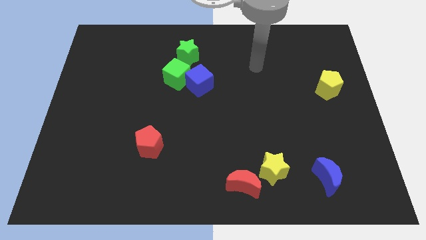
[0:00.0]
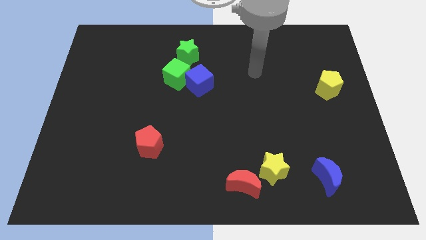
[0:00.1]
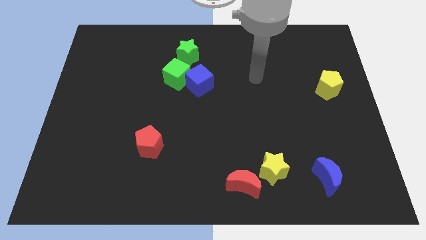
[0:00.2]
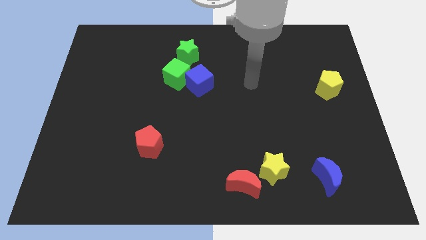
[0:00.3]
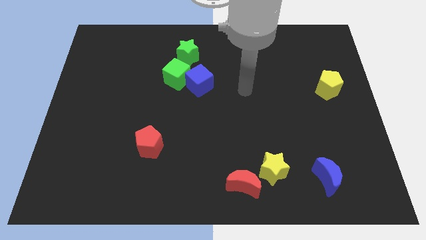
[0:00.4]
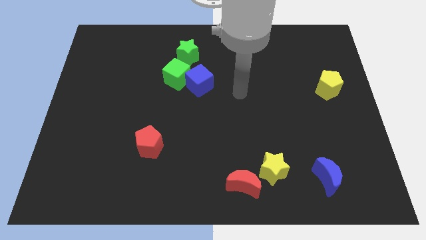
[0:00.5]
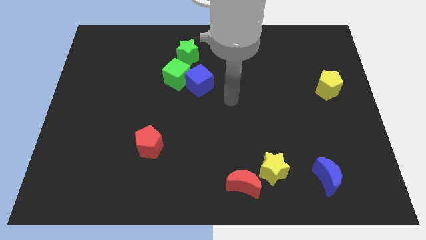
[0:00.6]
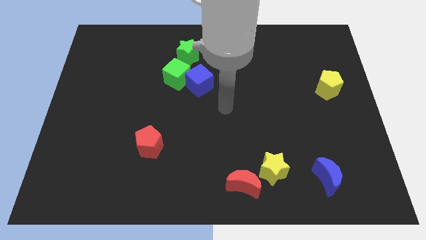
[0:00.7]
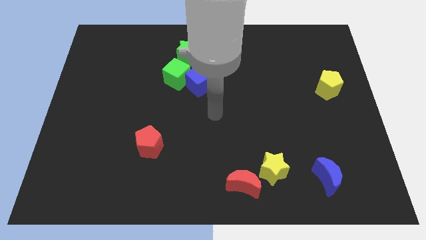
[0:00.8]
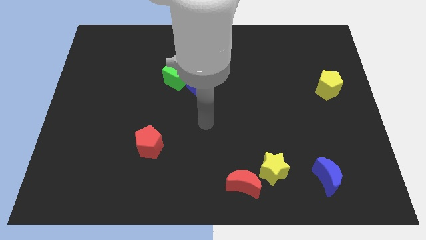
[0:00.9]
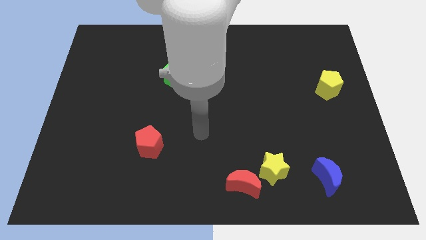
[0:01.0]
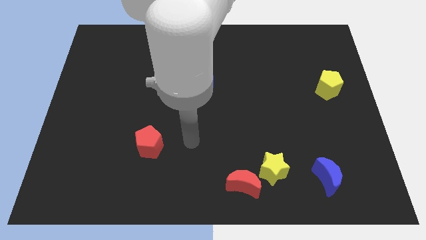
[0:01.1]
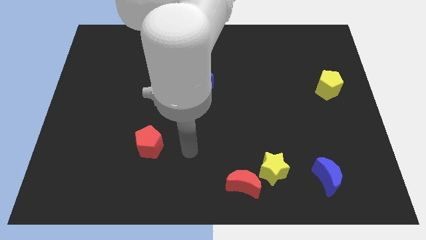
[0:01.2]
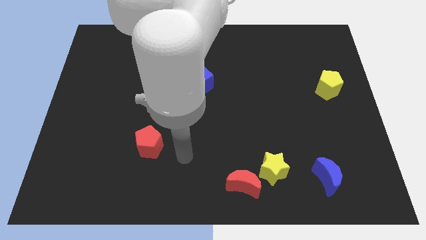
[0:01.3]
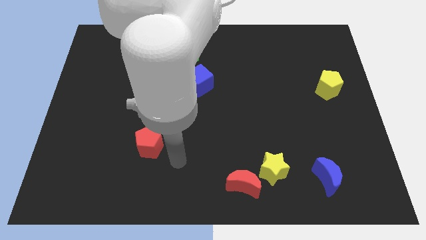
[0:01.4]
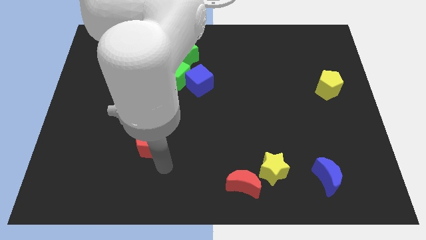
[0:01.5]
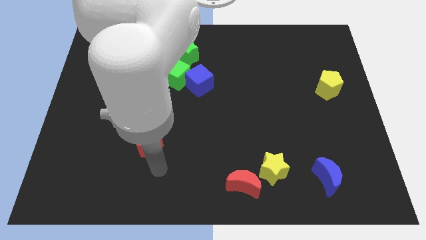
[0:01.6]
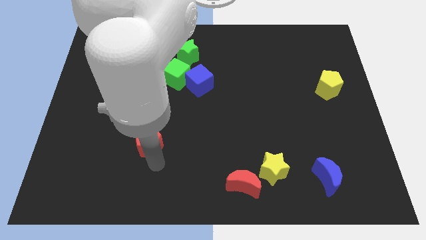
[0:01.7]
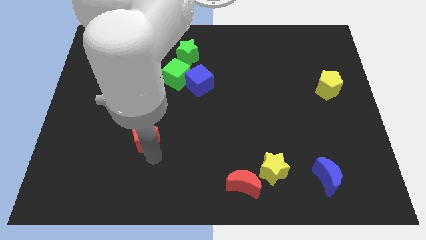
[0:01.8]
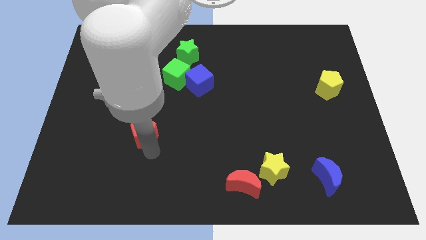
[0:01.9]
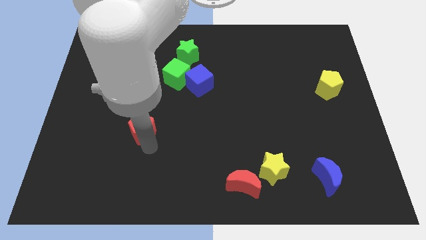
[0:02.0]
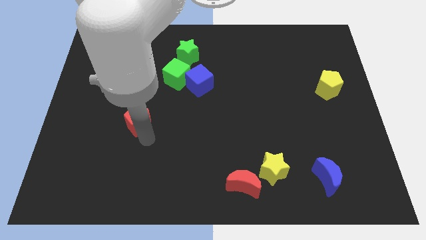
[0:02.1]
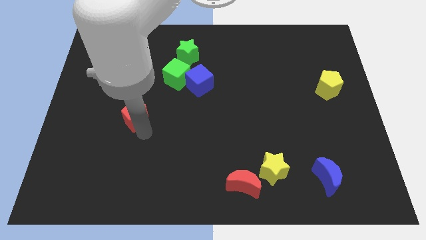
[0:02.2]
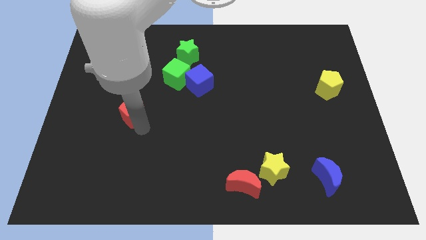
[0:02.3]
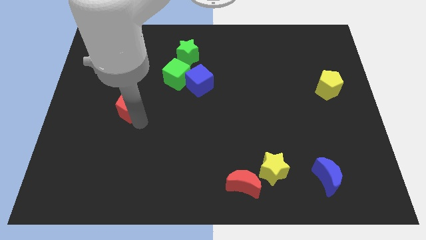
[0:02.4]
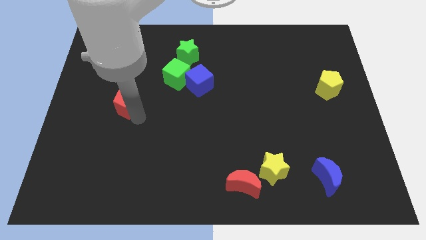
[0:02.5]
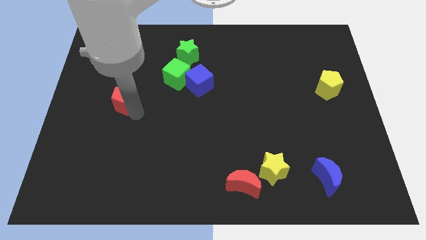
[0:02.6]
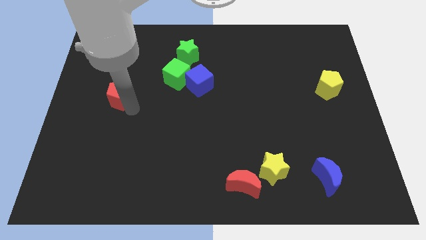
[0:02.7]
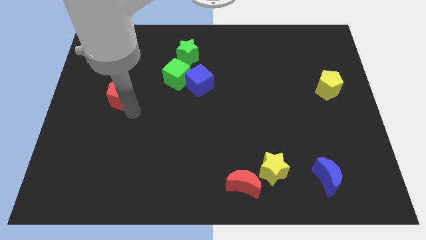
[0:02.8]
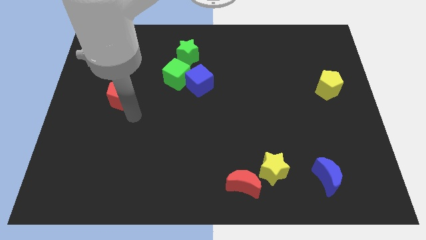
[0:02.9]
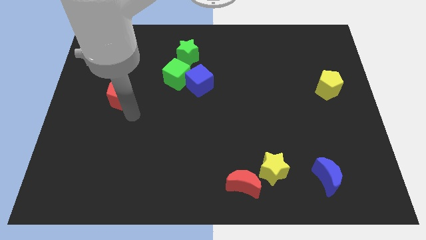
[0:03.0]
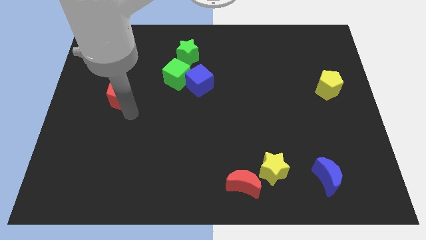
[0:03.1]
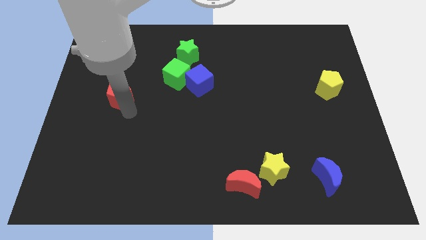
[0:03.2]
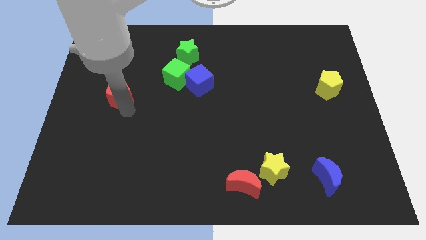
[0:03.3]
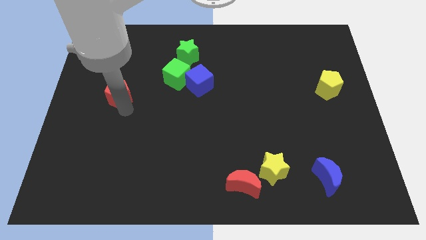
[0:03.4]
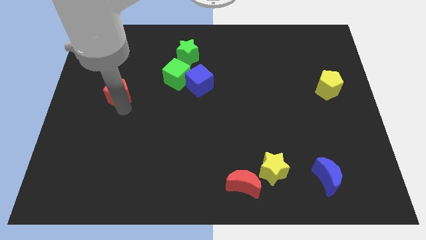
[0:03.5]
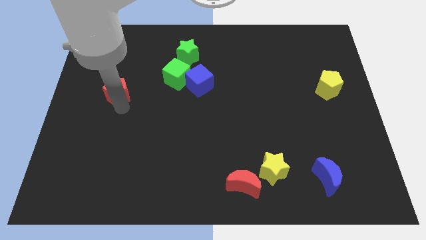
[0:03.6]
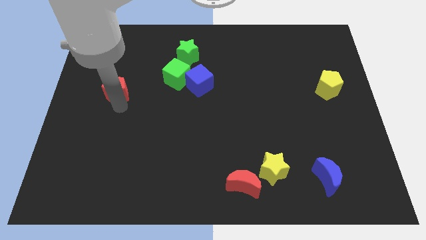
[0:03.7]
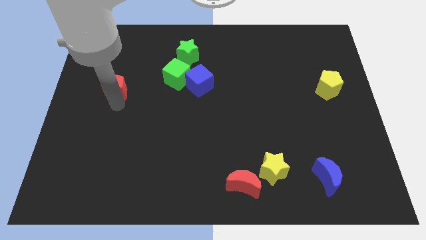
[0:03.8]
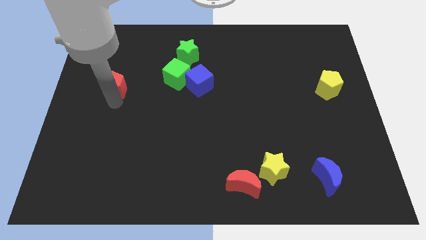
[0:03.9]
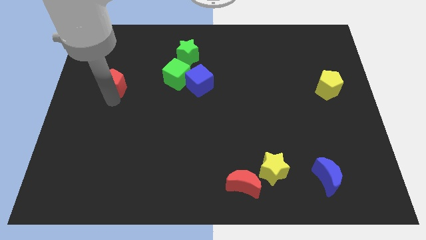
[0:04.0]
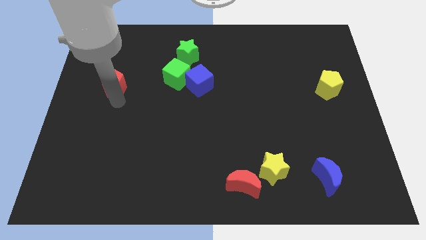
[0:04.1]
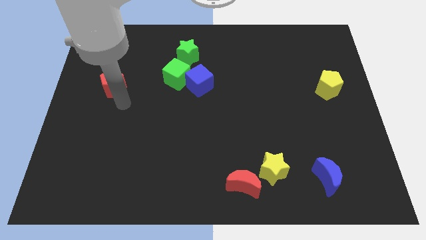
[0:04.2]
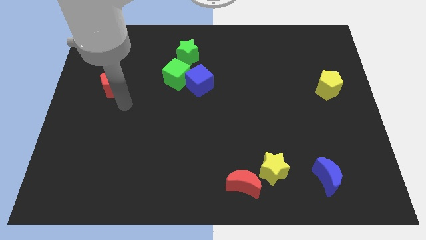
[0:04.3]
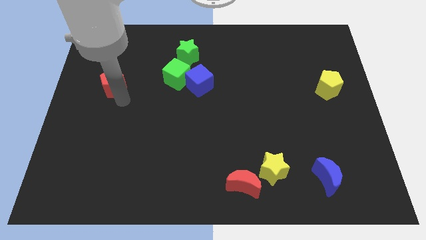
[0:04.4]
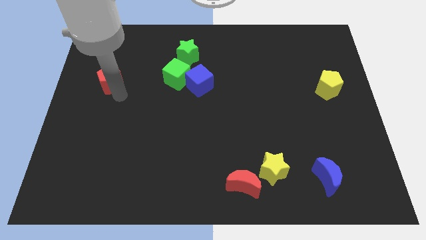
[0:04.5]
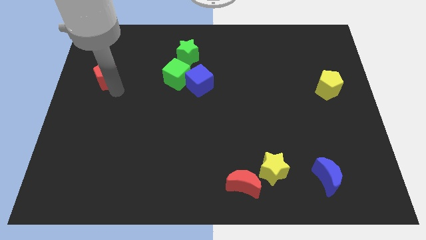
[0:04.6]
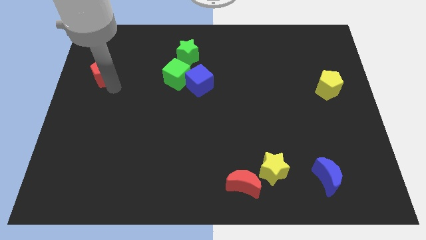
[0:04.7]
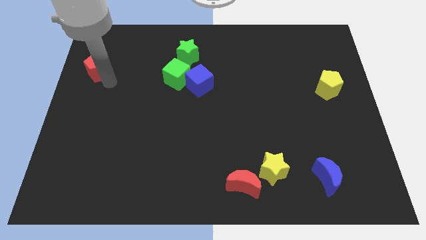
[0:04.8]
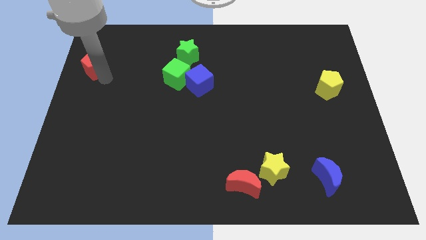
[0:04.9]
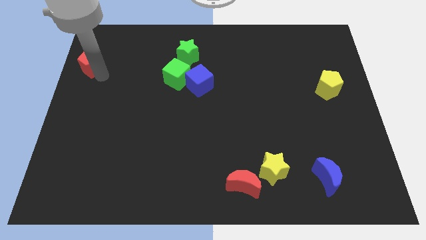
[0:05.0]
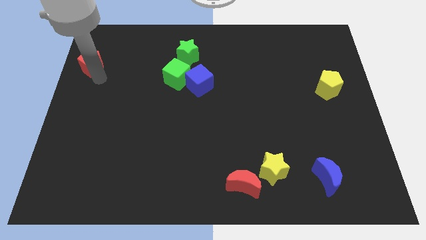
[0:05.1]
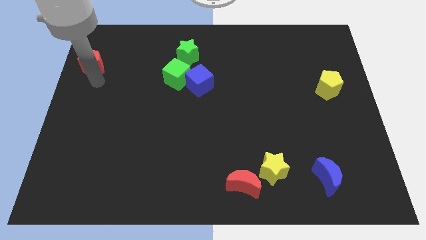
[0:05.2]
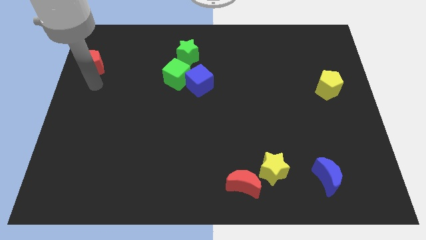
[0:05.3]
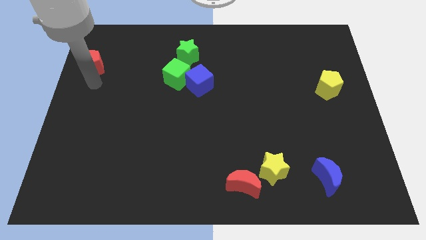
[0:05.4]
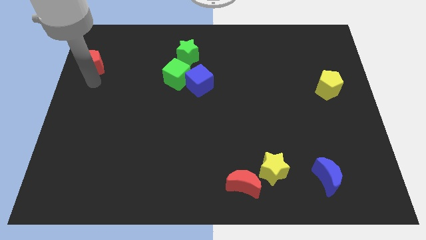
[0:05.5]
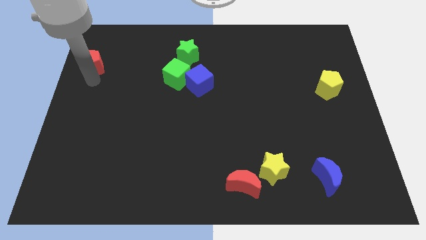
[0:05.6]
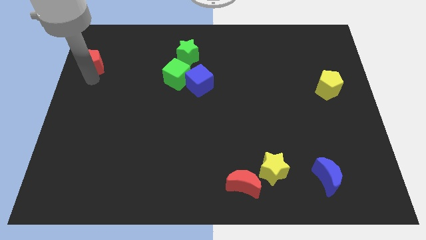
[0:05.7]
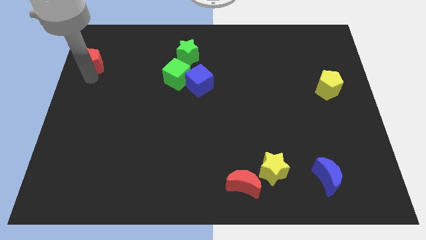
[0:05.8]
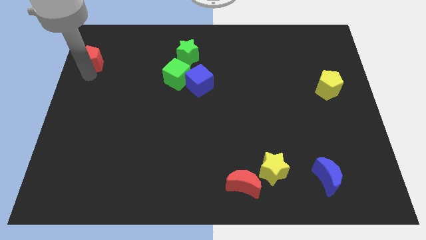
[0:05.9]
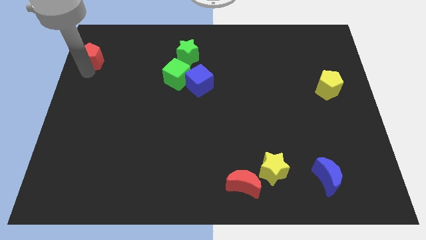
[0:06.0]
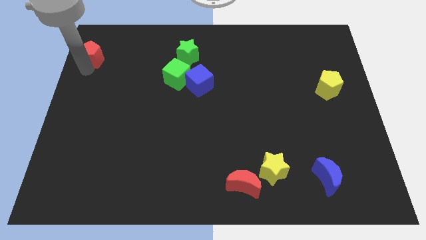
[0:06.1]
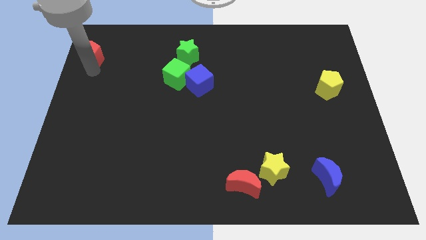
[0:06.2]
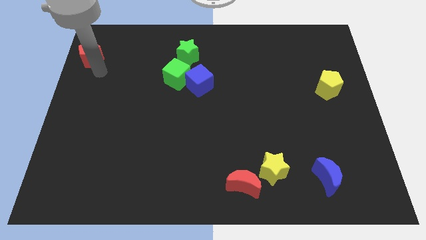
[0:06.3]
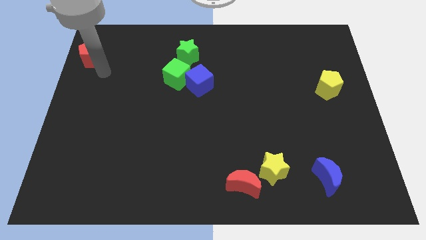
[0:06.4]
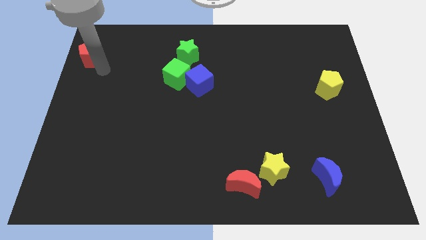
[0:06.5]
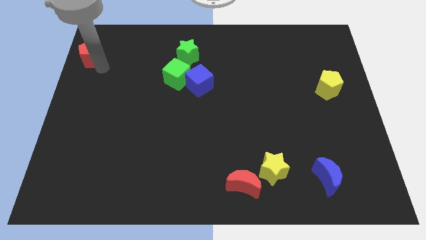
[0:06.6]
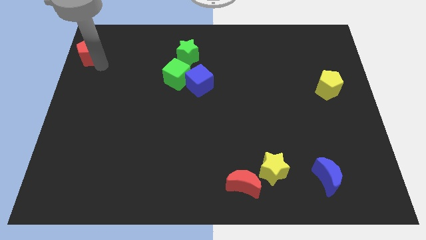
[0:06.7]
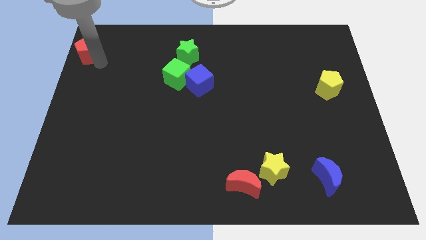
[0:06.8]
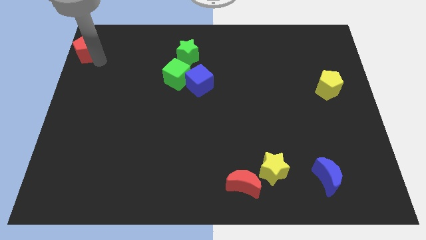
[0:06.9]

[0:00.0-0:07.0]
push the red pentagon to the top left corner
